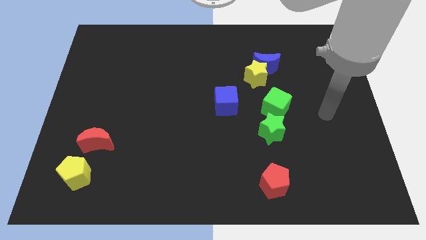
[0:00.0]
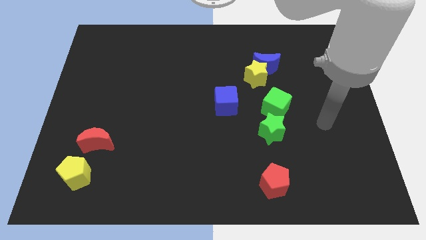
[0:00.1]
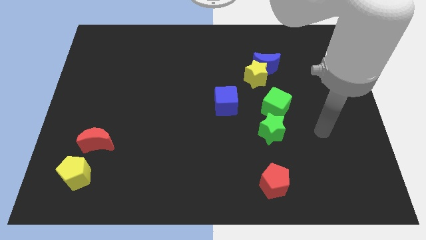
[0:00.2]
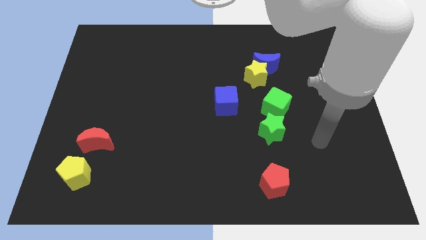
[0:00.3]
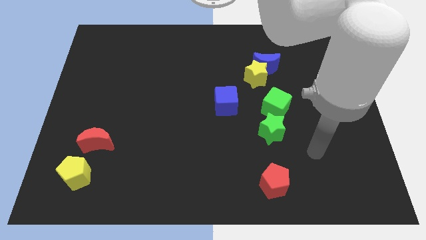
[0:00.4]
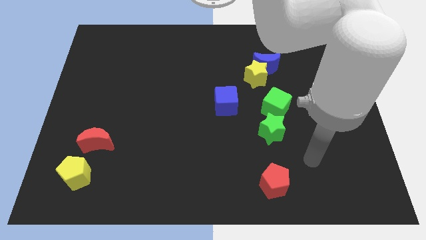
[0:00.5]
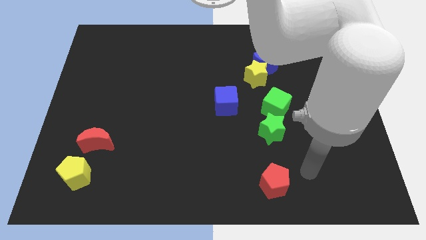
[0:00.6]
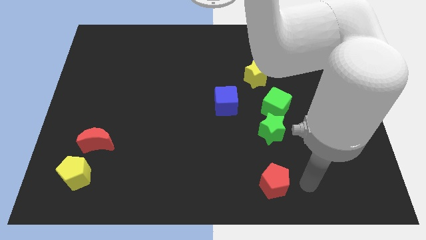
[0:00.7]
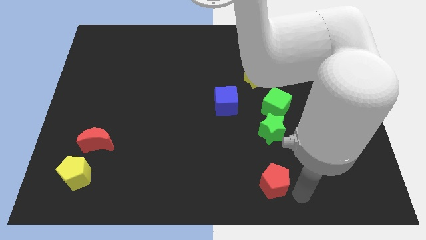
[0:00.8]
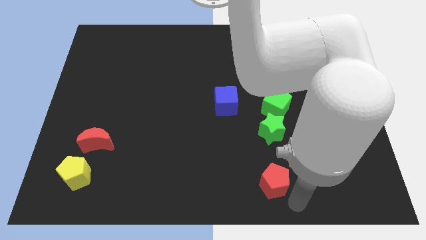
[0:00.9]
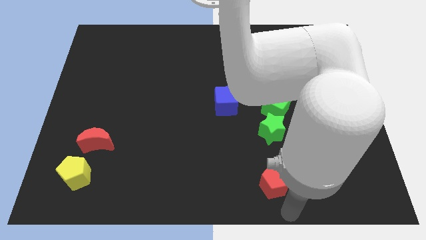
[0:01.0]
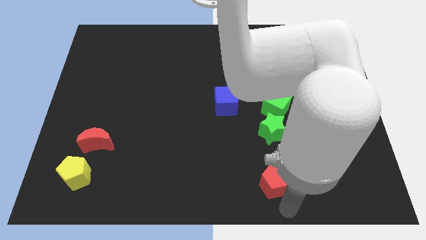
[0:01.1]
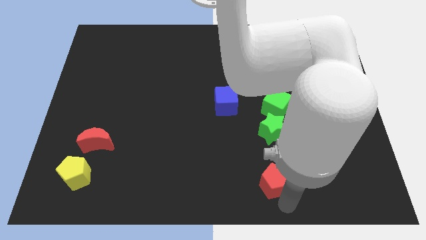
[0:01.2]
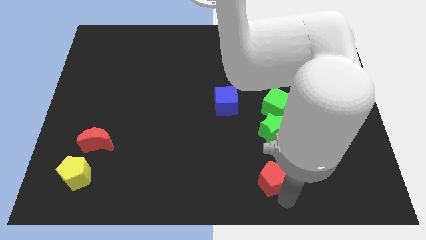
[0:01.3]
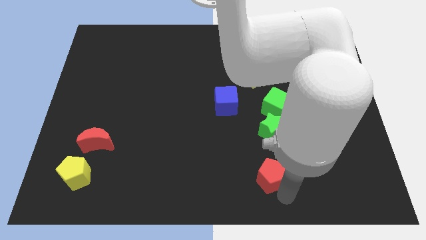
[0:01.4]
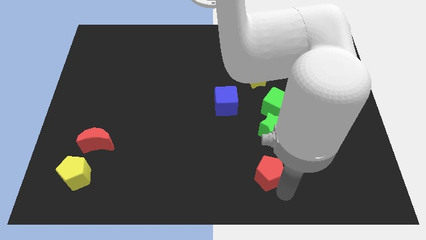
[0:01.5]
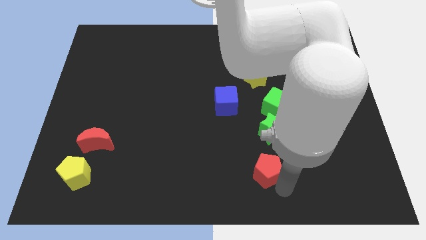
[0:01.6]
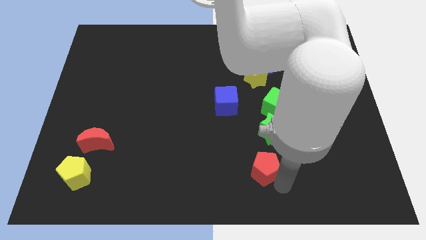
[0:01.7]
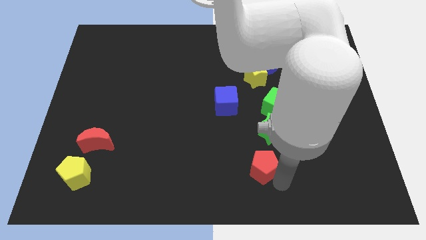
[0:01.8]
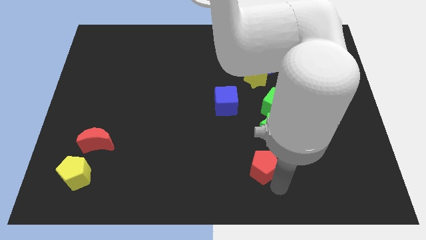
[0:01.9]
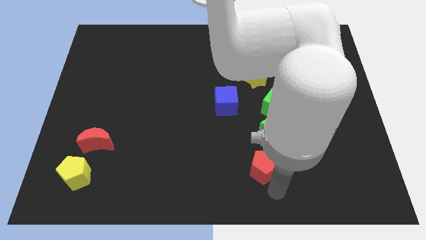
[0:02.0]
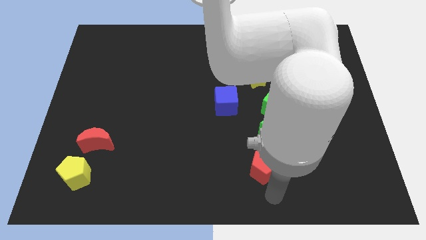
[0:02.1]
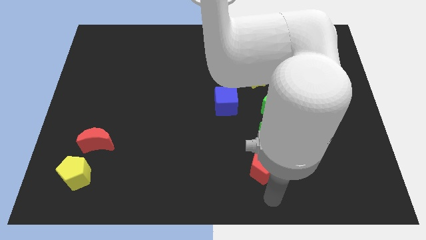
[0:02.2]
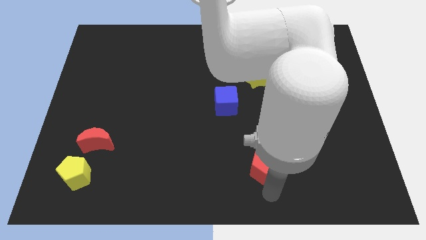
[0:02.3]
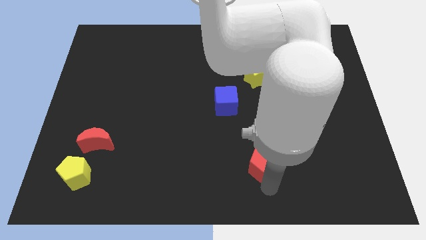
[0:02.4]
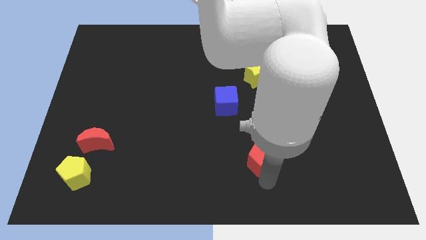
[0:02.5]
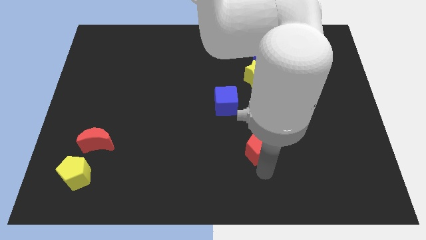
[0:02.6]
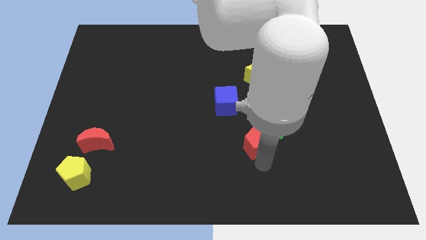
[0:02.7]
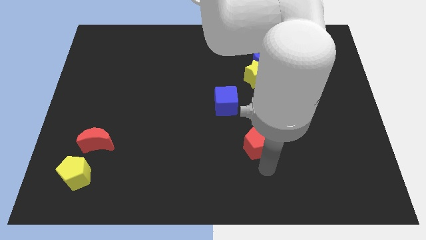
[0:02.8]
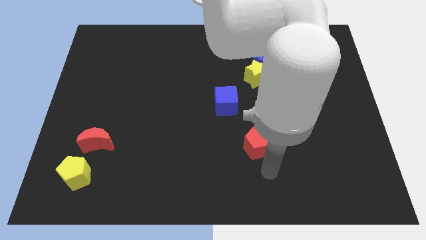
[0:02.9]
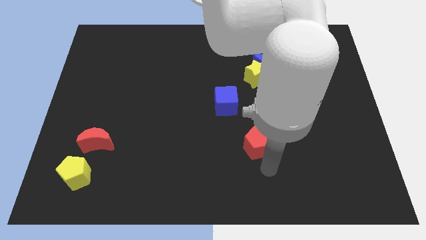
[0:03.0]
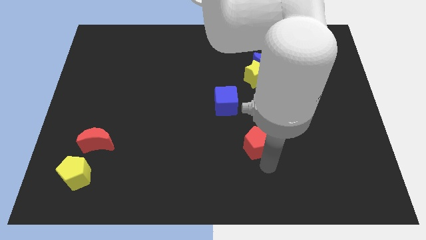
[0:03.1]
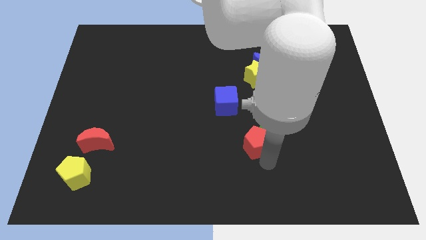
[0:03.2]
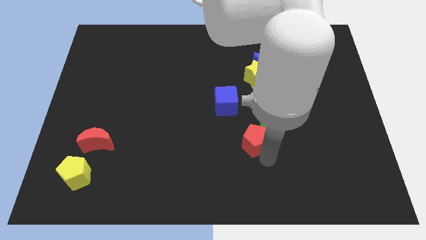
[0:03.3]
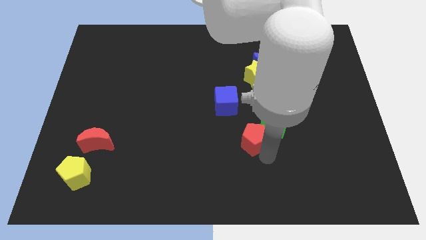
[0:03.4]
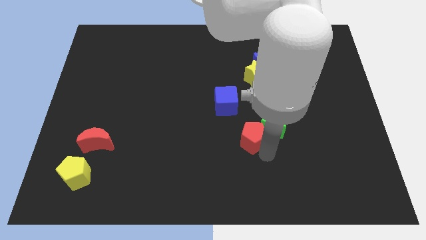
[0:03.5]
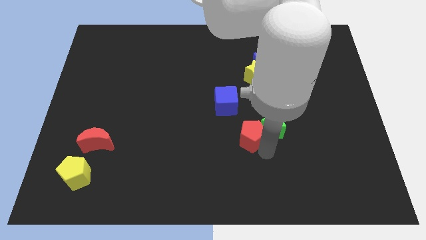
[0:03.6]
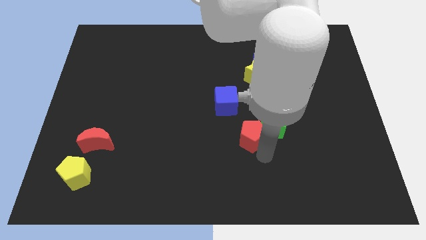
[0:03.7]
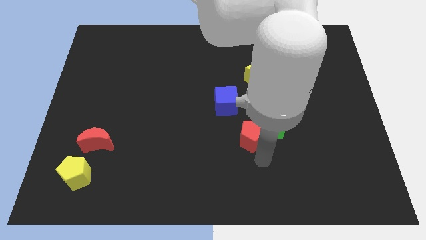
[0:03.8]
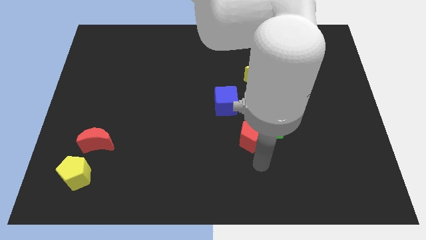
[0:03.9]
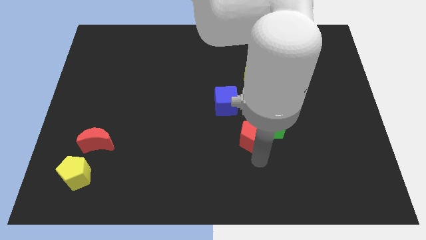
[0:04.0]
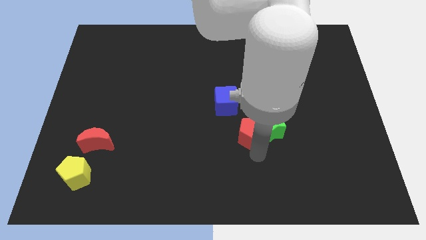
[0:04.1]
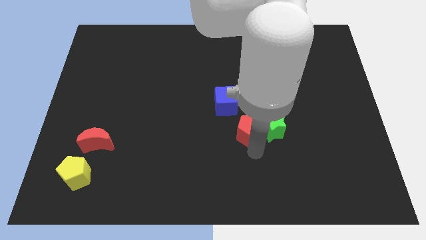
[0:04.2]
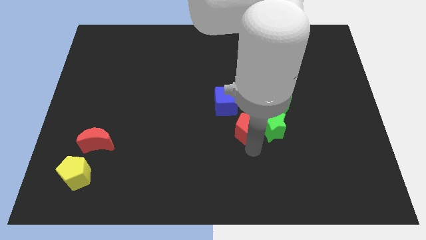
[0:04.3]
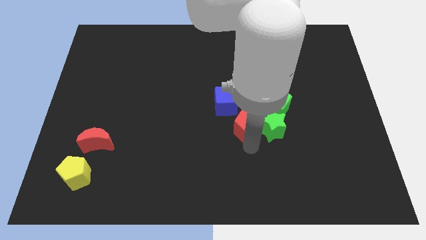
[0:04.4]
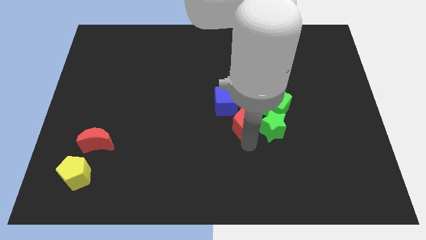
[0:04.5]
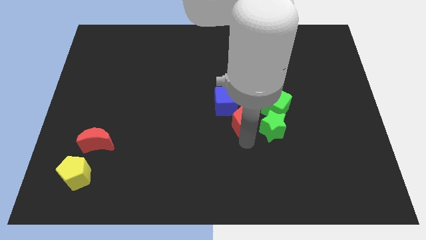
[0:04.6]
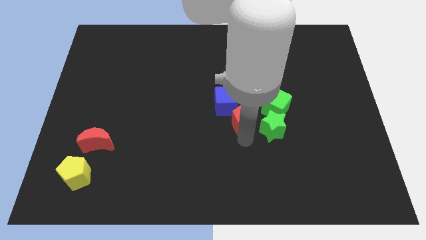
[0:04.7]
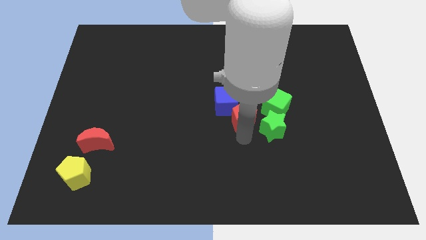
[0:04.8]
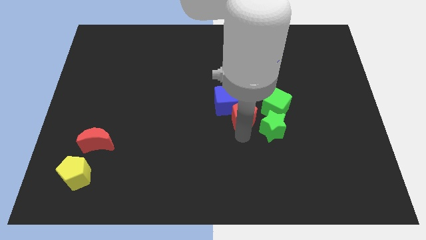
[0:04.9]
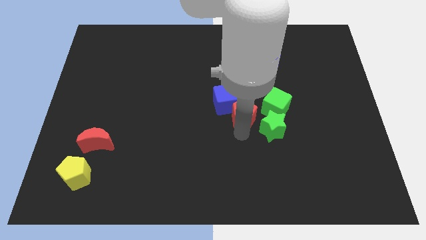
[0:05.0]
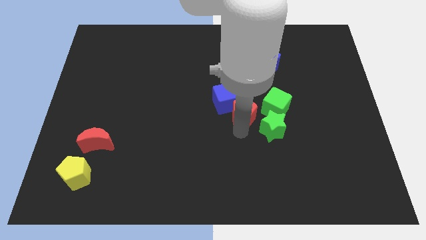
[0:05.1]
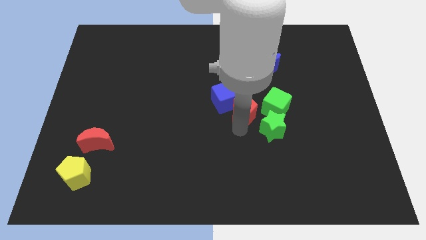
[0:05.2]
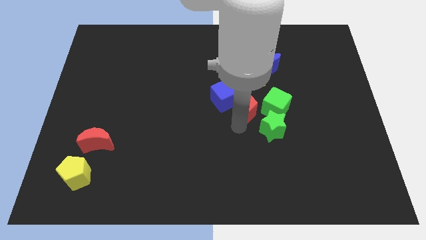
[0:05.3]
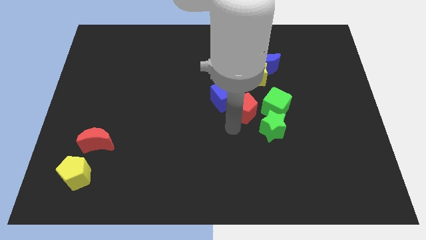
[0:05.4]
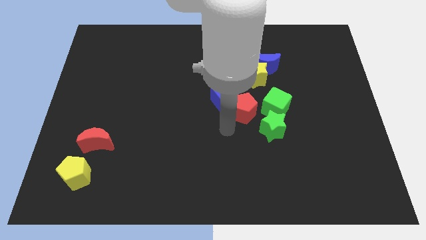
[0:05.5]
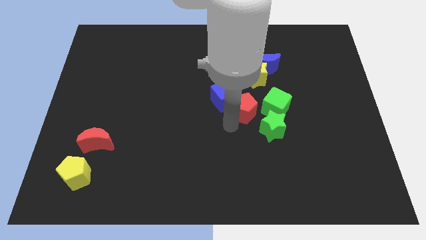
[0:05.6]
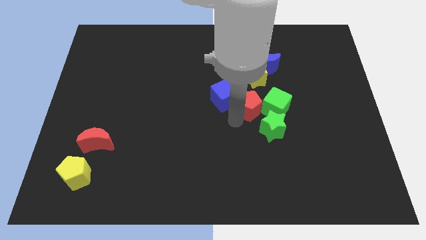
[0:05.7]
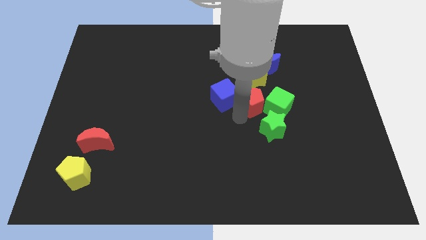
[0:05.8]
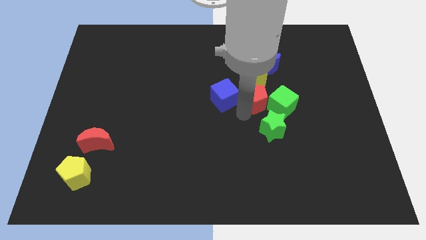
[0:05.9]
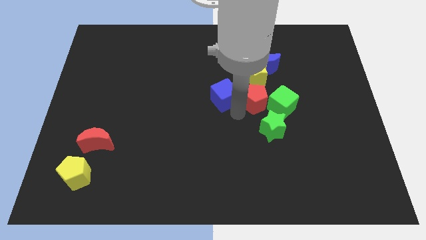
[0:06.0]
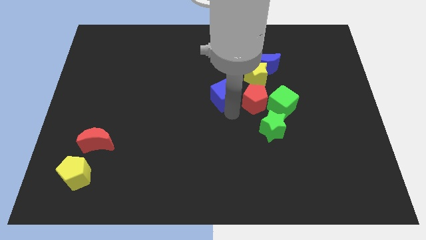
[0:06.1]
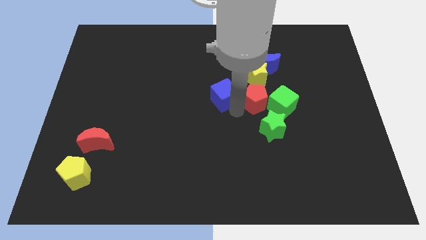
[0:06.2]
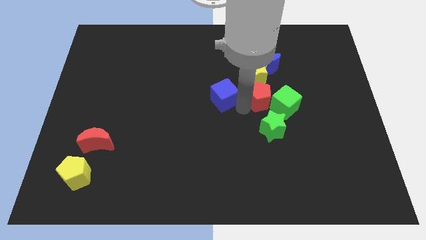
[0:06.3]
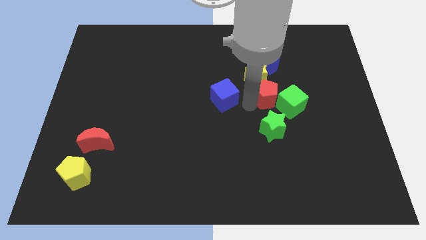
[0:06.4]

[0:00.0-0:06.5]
slide the red pentagon to the bottom right side of the yellow star
